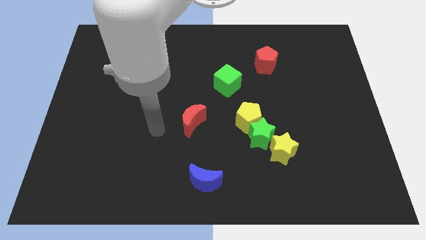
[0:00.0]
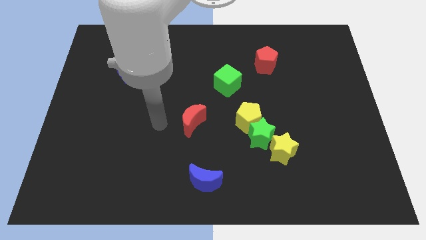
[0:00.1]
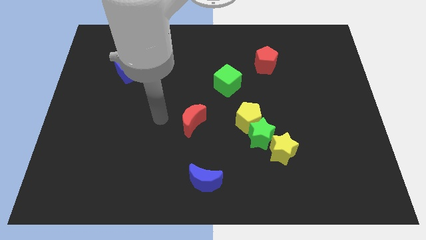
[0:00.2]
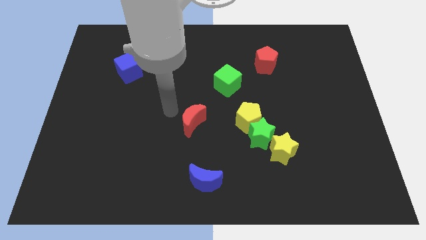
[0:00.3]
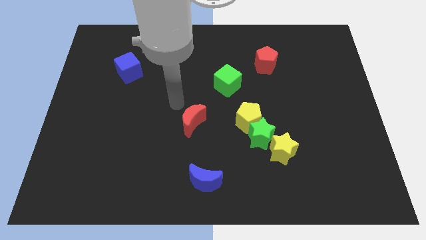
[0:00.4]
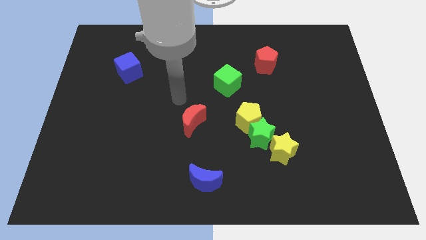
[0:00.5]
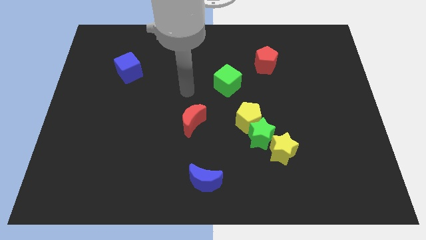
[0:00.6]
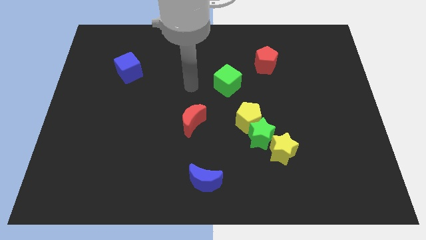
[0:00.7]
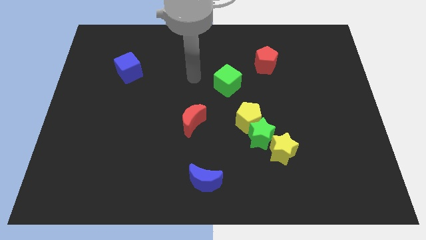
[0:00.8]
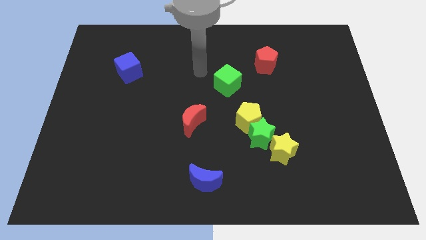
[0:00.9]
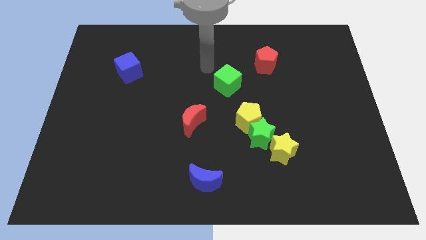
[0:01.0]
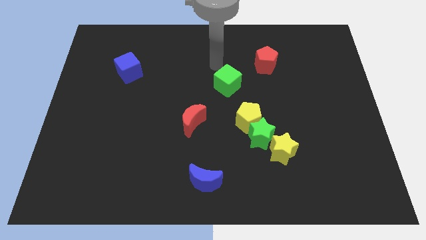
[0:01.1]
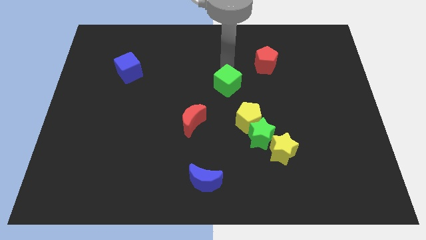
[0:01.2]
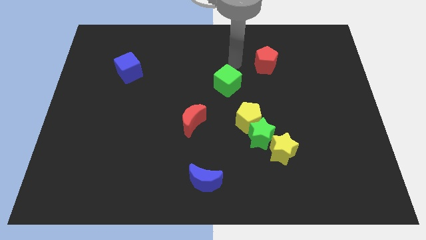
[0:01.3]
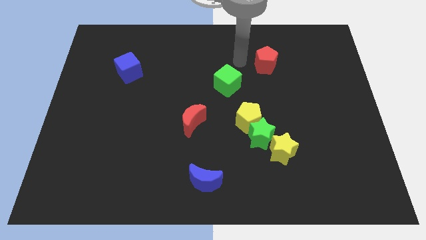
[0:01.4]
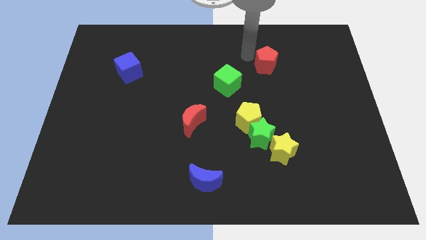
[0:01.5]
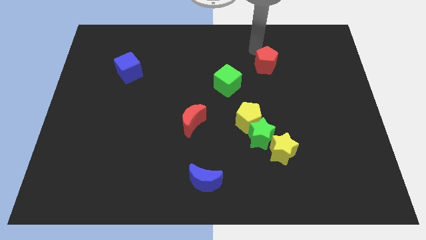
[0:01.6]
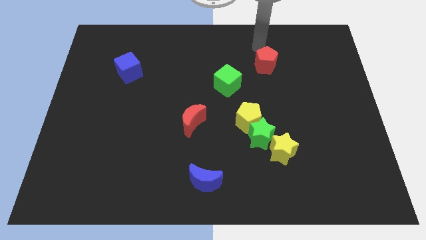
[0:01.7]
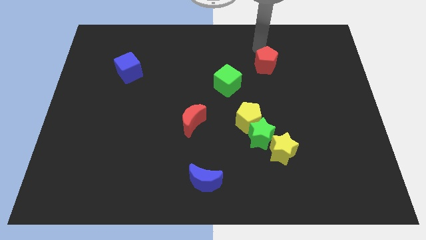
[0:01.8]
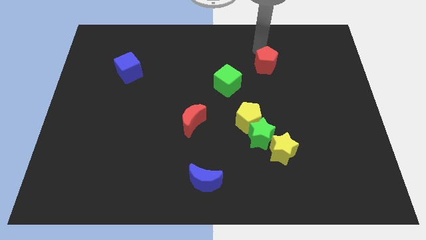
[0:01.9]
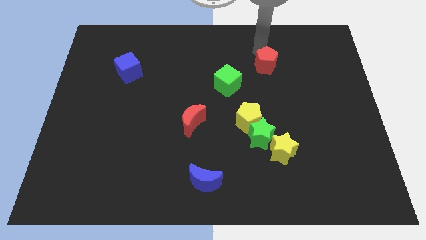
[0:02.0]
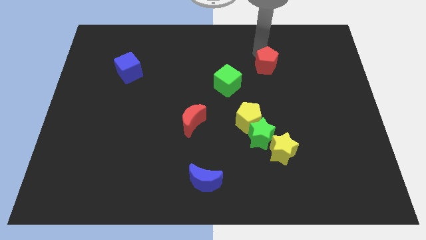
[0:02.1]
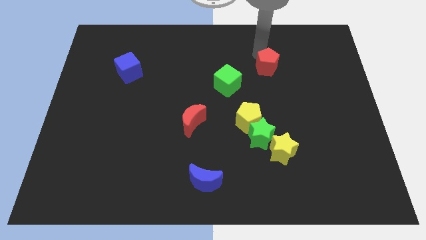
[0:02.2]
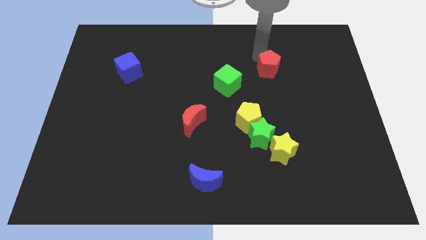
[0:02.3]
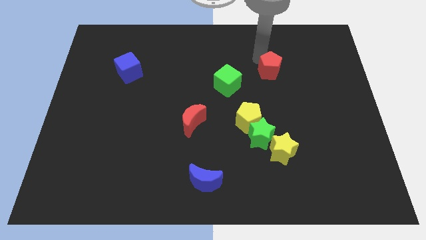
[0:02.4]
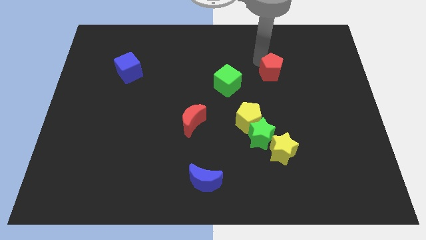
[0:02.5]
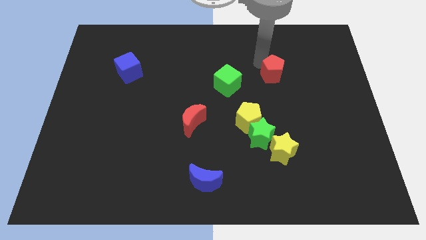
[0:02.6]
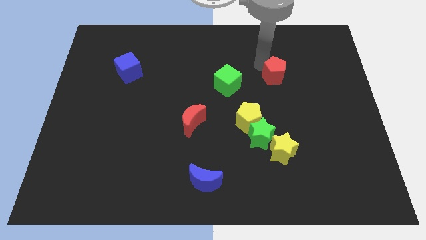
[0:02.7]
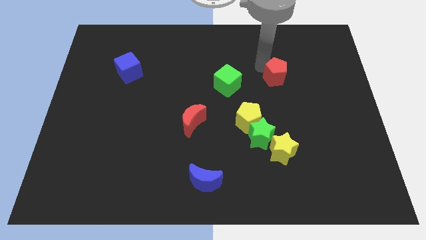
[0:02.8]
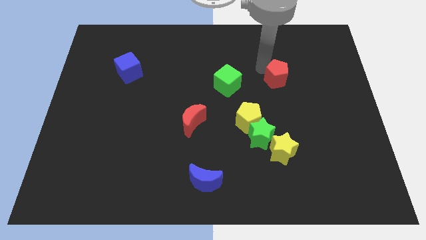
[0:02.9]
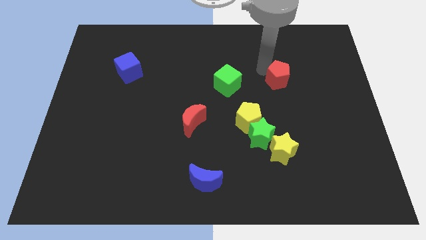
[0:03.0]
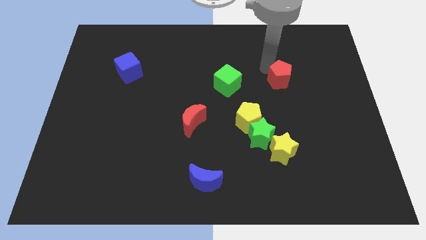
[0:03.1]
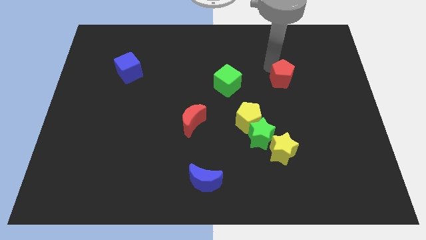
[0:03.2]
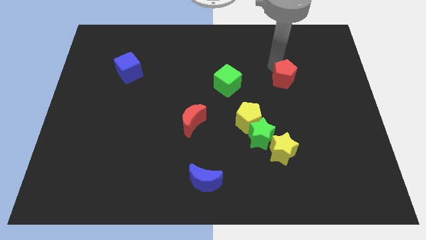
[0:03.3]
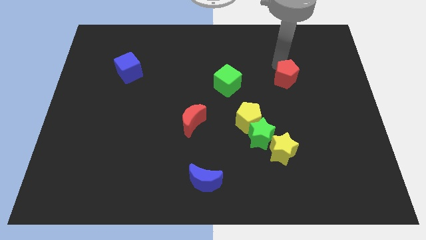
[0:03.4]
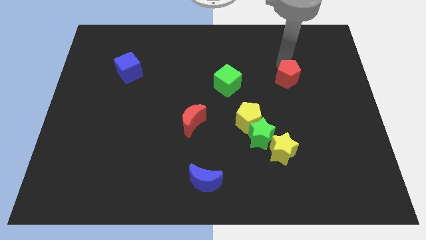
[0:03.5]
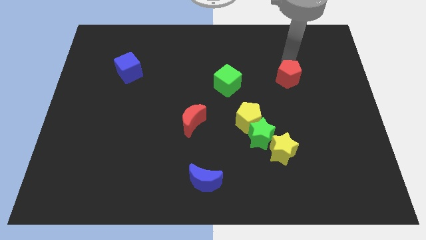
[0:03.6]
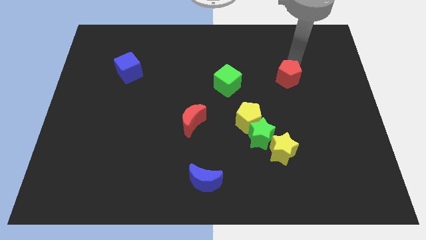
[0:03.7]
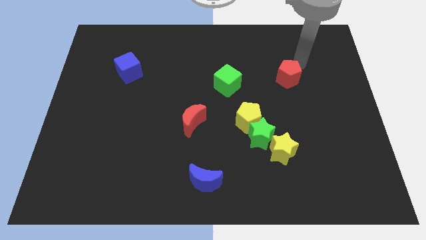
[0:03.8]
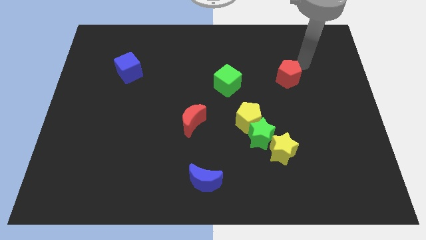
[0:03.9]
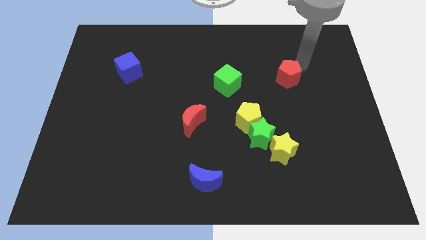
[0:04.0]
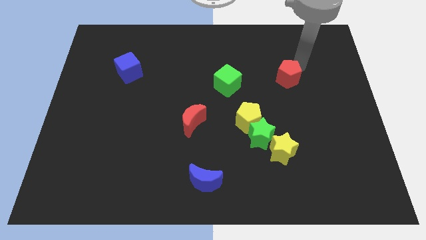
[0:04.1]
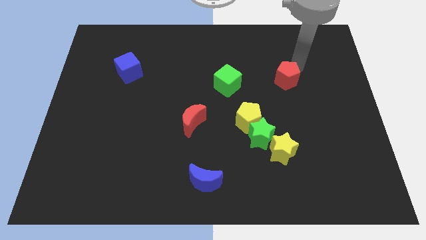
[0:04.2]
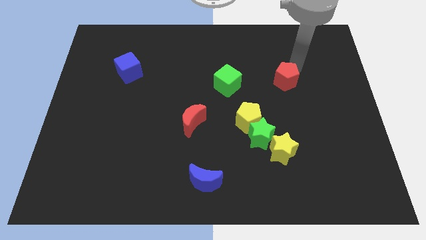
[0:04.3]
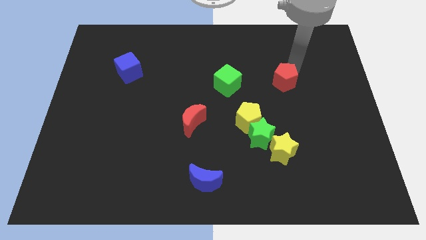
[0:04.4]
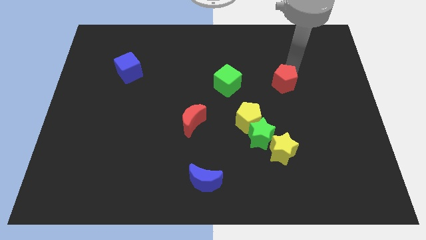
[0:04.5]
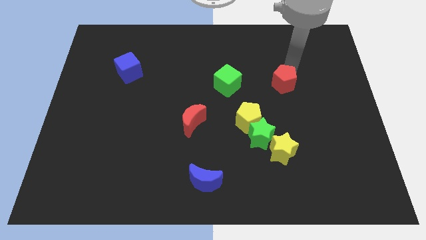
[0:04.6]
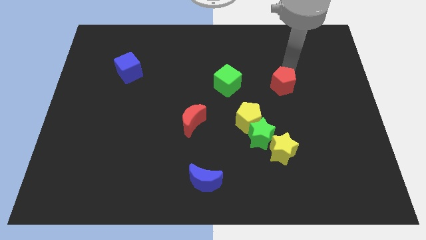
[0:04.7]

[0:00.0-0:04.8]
slightly push the red pentagon downwards

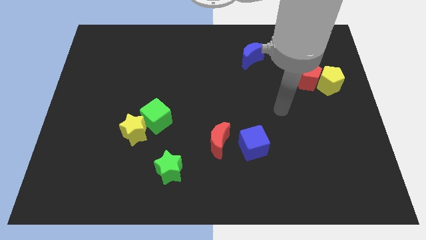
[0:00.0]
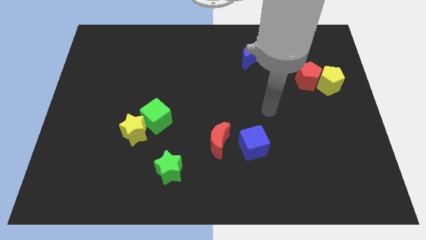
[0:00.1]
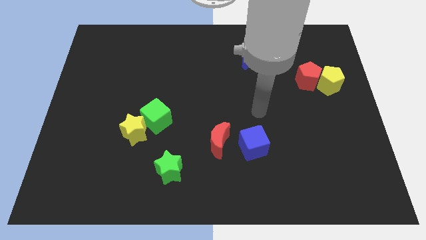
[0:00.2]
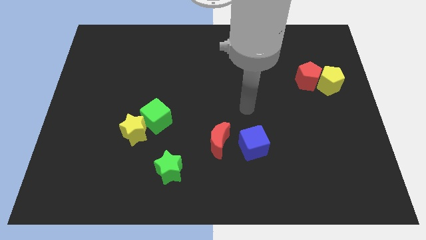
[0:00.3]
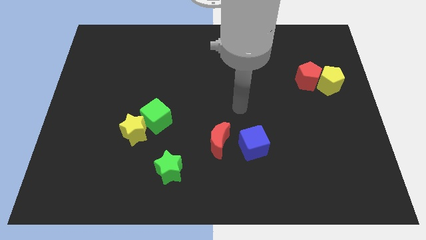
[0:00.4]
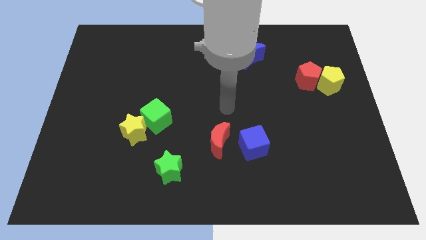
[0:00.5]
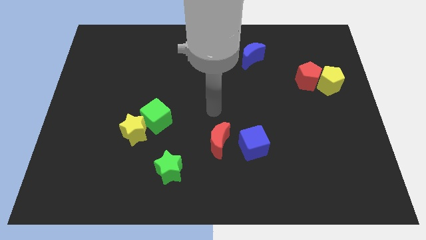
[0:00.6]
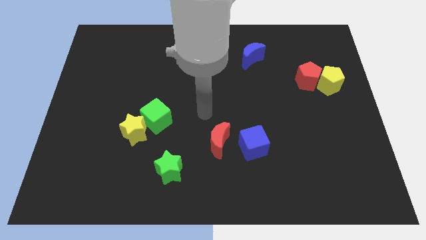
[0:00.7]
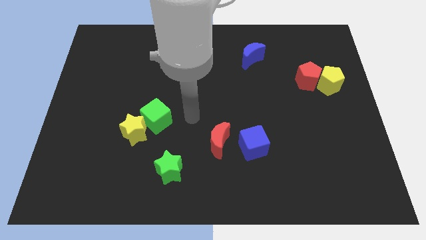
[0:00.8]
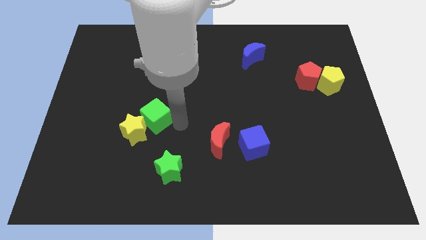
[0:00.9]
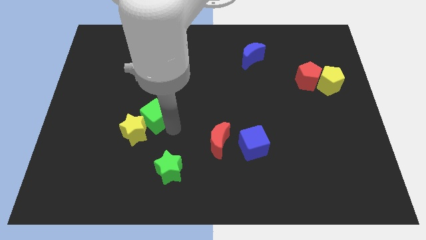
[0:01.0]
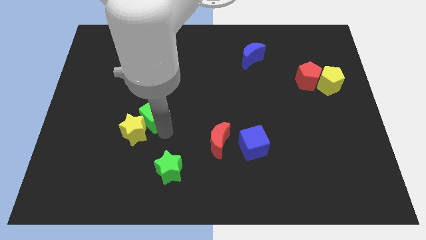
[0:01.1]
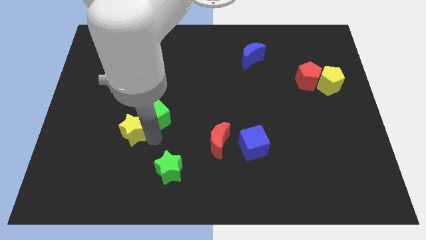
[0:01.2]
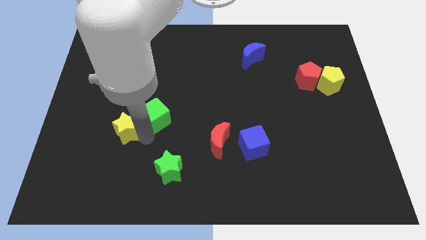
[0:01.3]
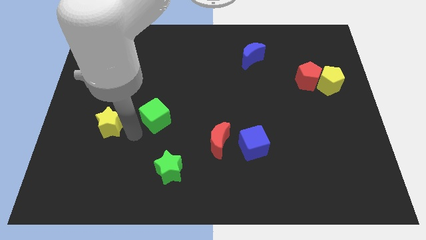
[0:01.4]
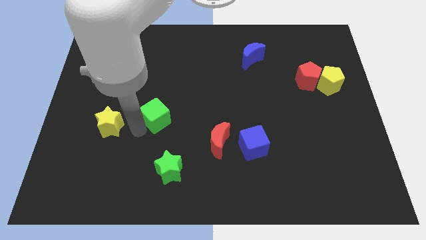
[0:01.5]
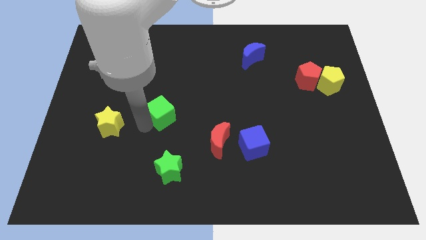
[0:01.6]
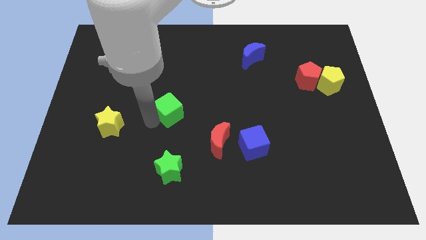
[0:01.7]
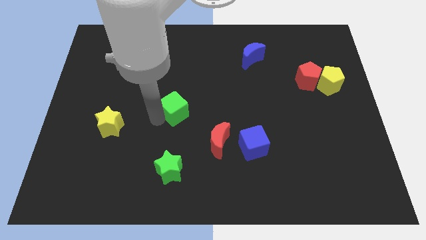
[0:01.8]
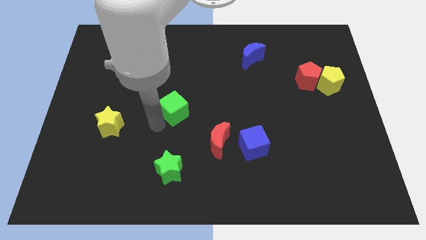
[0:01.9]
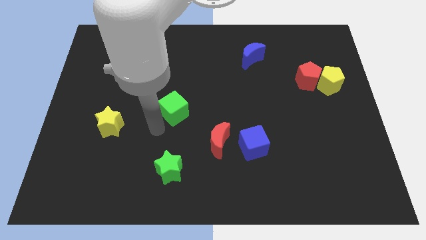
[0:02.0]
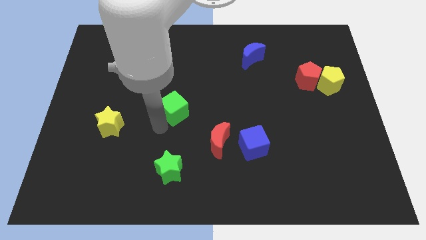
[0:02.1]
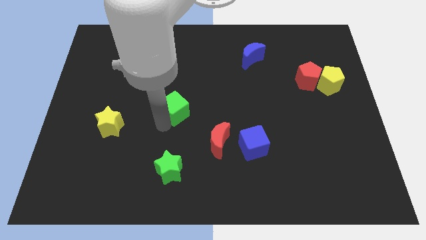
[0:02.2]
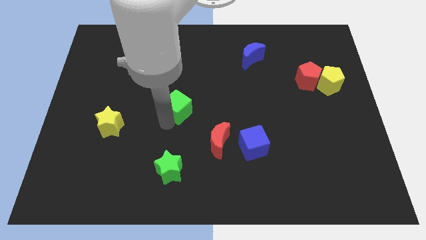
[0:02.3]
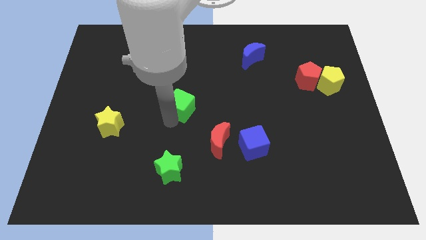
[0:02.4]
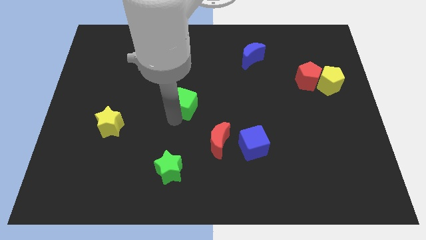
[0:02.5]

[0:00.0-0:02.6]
slide the green cube up and right slightly

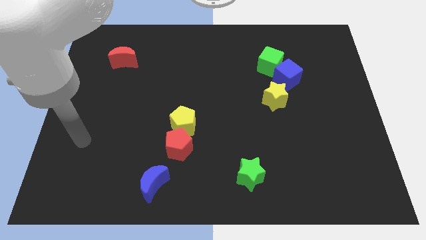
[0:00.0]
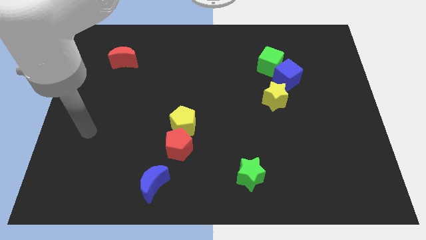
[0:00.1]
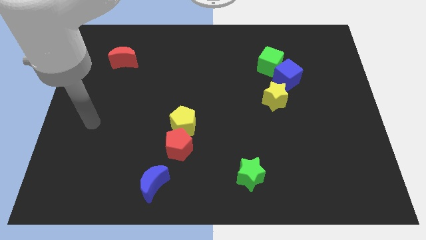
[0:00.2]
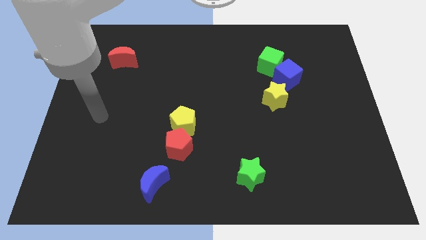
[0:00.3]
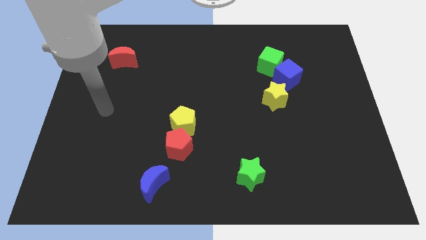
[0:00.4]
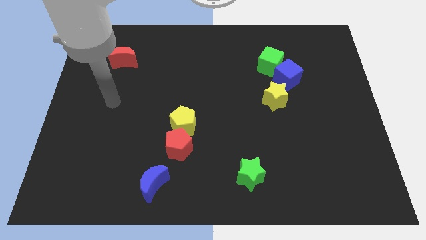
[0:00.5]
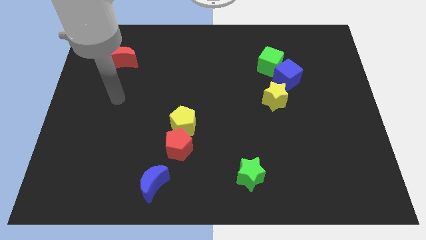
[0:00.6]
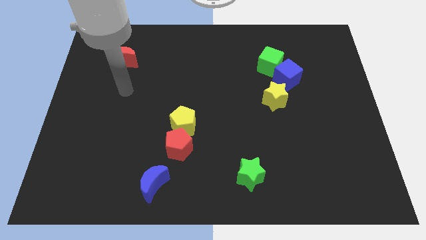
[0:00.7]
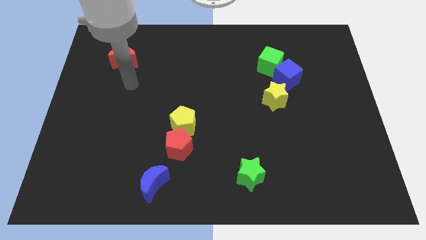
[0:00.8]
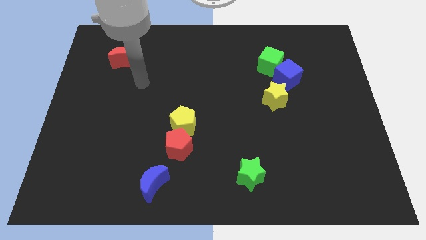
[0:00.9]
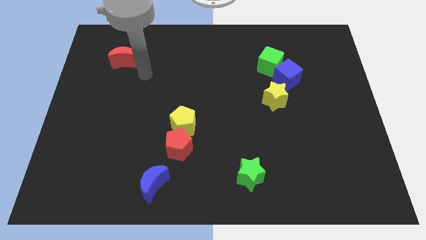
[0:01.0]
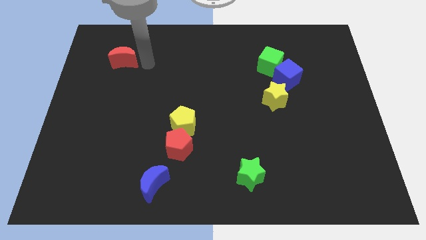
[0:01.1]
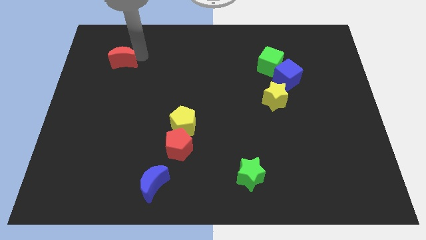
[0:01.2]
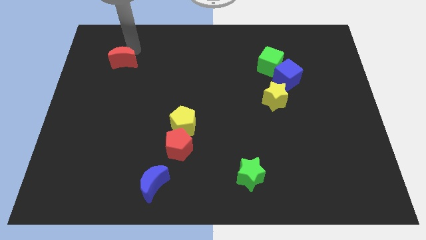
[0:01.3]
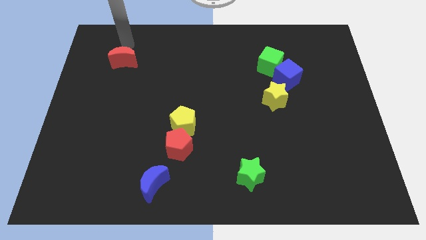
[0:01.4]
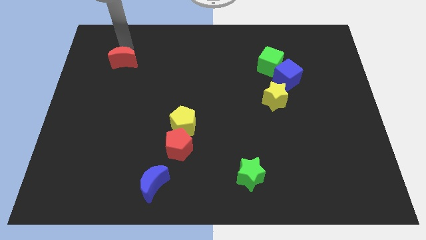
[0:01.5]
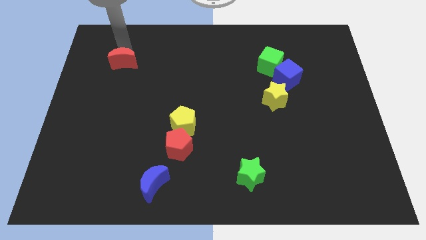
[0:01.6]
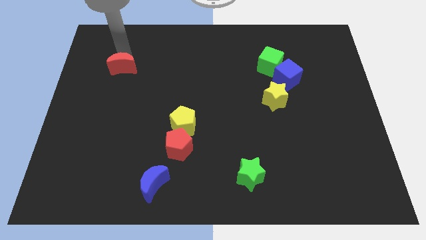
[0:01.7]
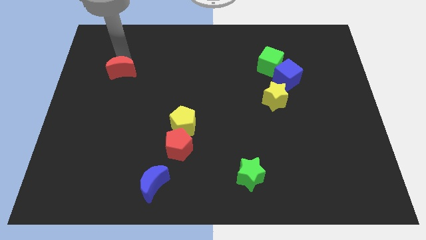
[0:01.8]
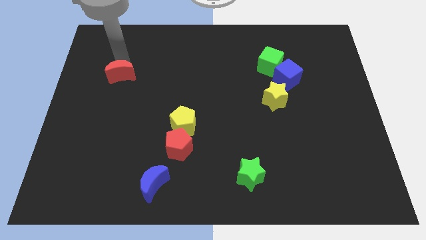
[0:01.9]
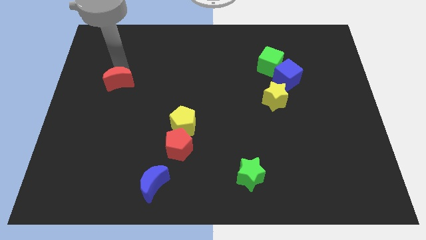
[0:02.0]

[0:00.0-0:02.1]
move the red moon a little bit down
